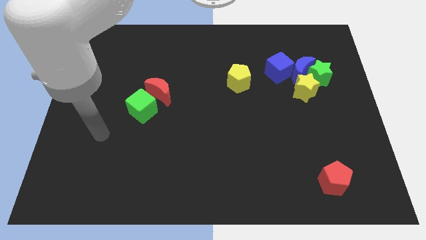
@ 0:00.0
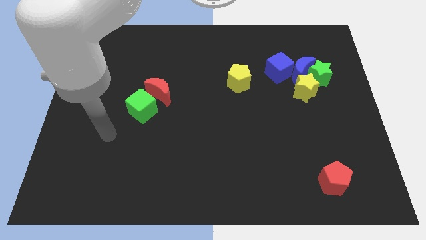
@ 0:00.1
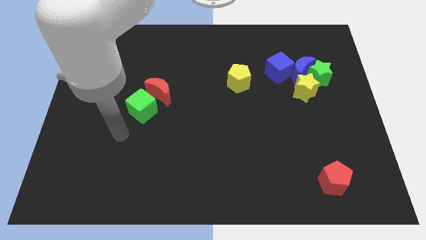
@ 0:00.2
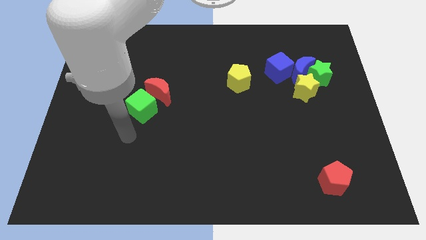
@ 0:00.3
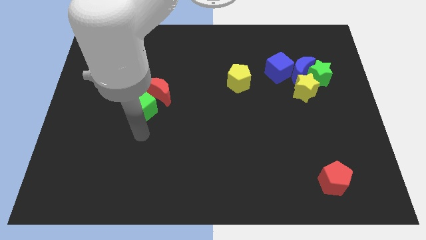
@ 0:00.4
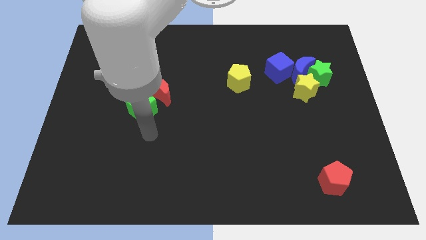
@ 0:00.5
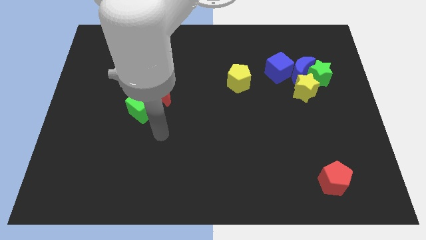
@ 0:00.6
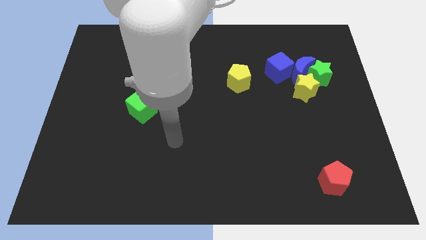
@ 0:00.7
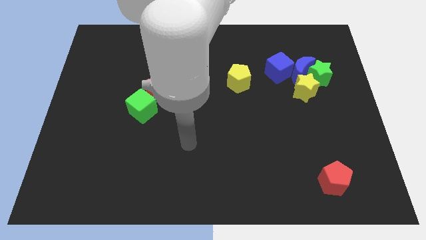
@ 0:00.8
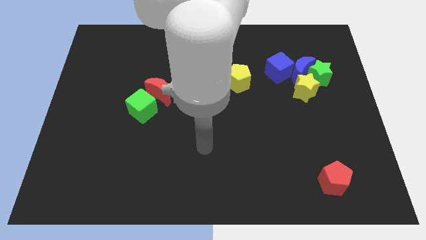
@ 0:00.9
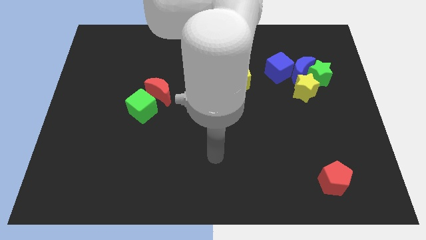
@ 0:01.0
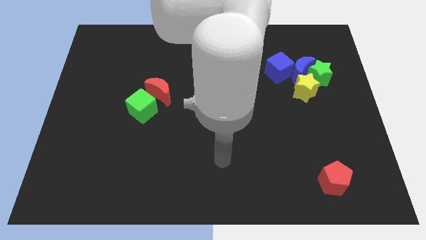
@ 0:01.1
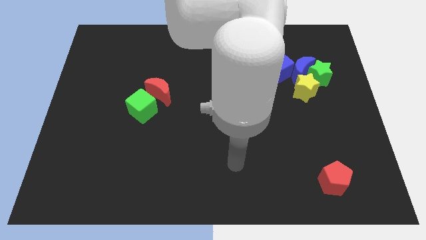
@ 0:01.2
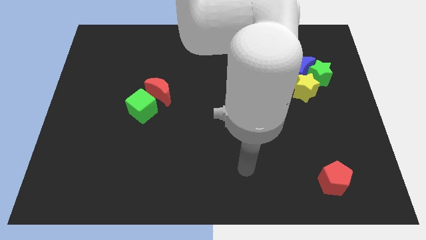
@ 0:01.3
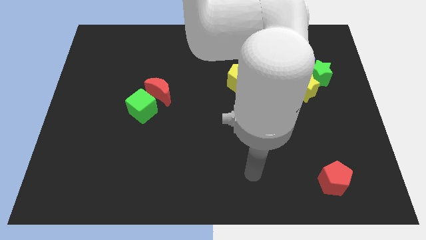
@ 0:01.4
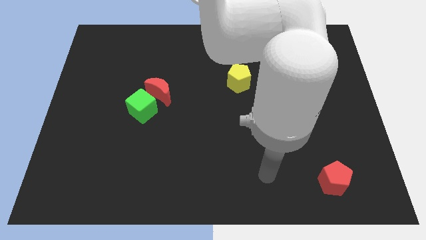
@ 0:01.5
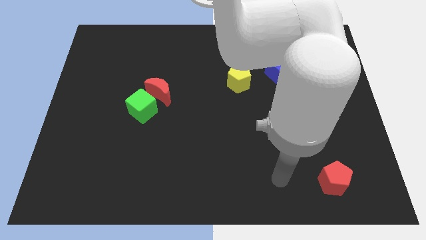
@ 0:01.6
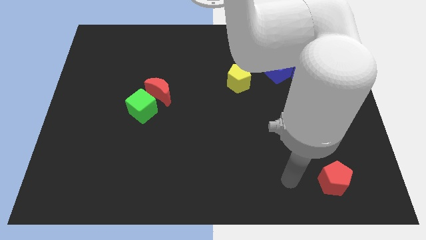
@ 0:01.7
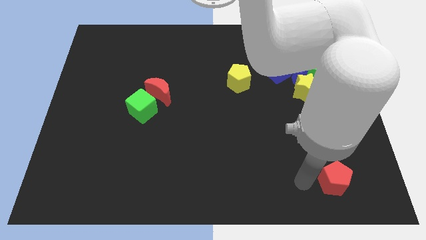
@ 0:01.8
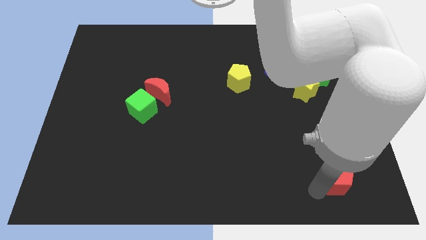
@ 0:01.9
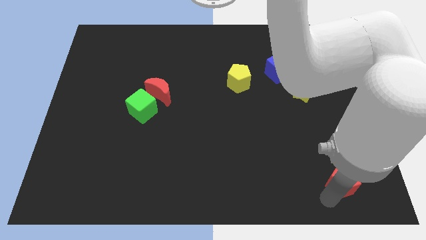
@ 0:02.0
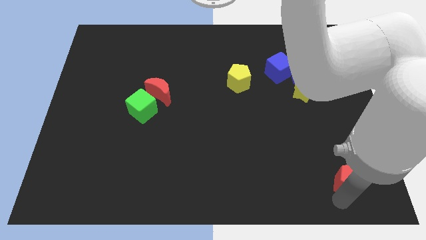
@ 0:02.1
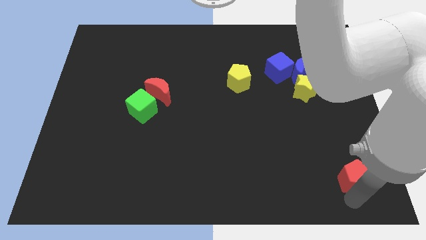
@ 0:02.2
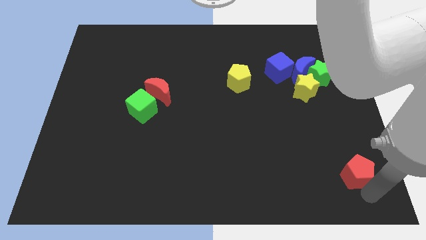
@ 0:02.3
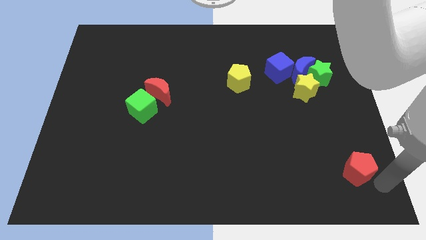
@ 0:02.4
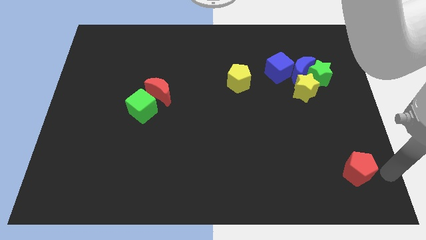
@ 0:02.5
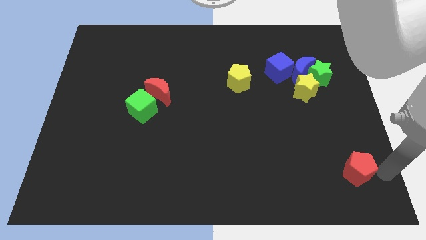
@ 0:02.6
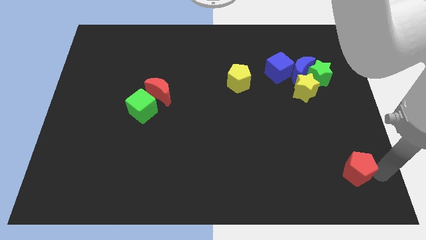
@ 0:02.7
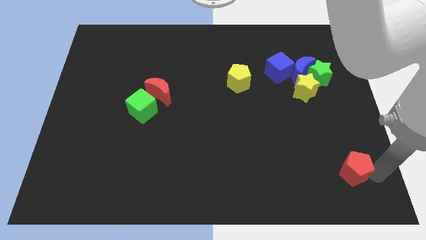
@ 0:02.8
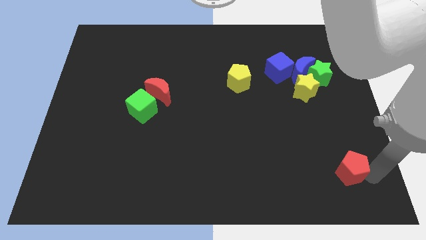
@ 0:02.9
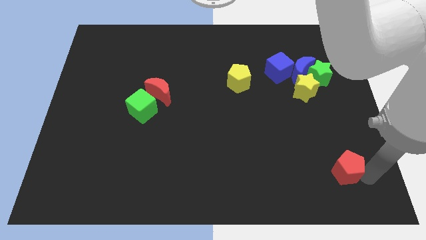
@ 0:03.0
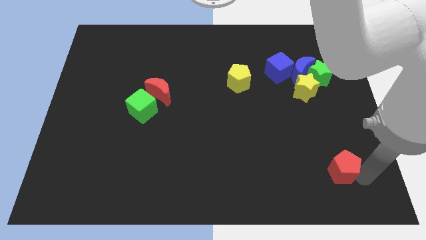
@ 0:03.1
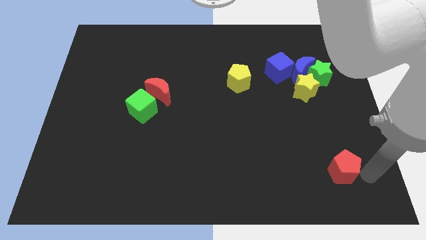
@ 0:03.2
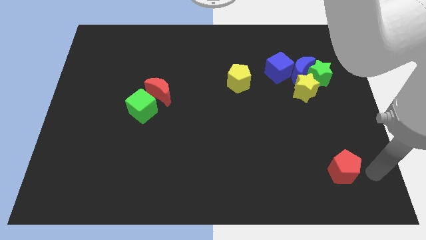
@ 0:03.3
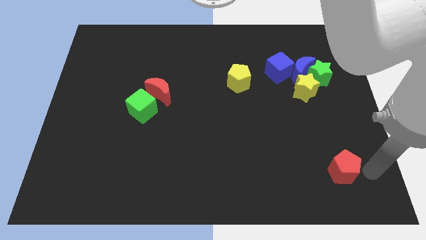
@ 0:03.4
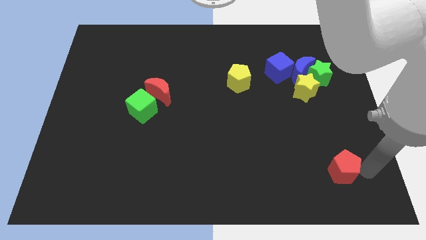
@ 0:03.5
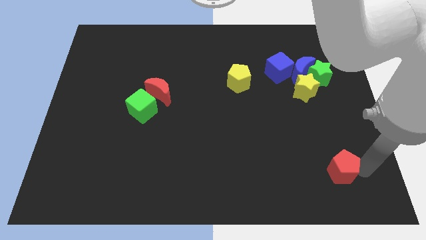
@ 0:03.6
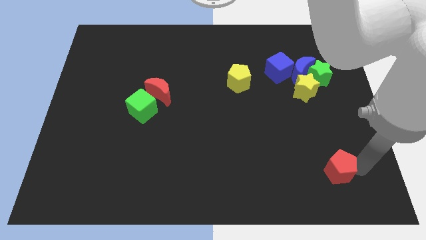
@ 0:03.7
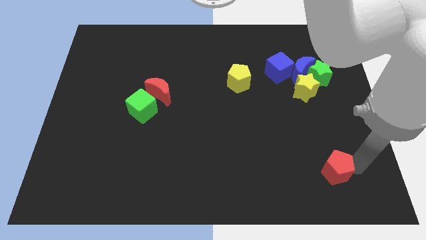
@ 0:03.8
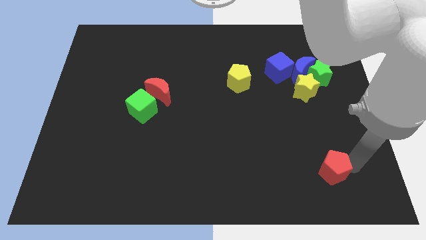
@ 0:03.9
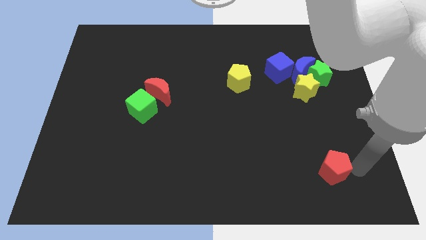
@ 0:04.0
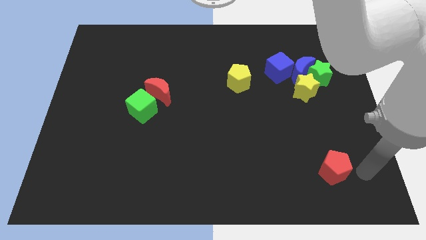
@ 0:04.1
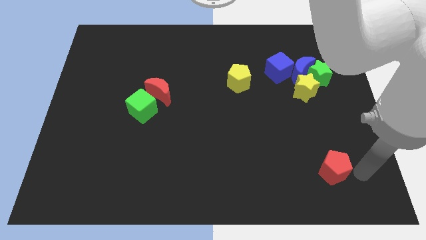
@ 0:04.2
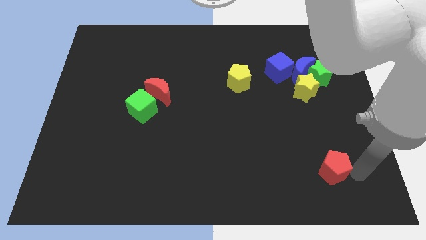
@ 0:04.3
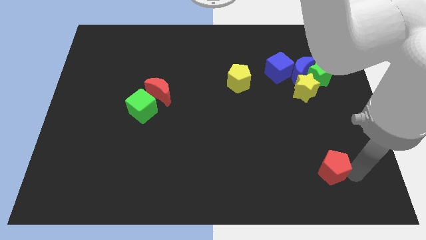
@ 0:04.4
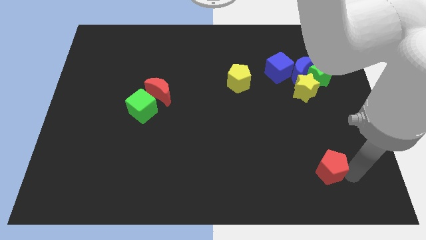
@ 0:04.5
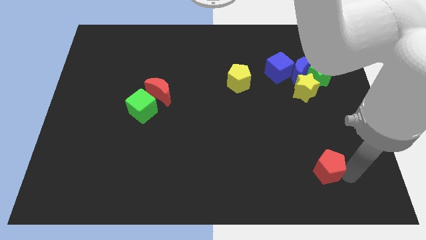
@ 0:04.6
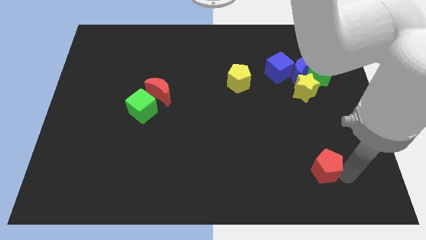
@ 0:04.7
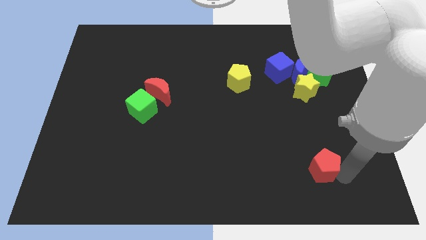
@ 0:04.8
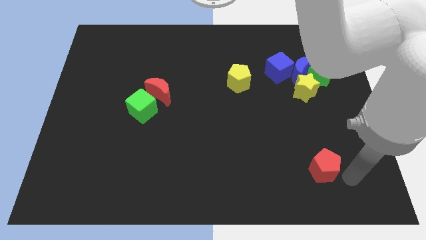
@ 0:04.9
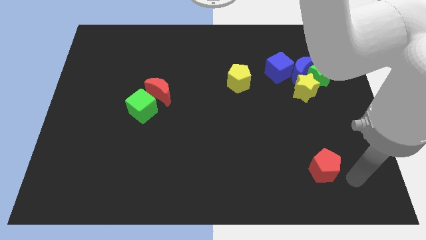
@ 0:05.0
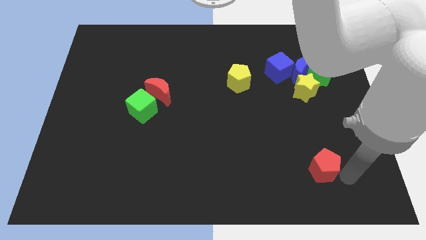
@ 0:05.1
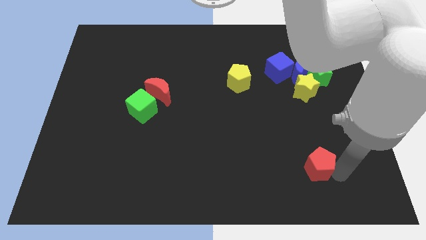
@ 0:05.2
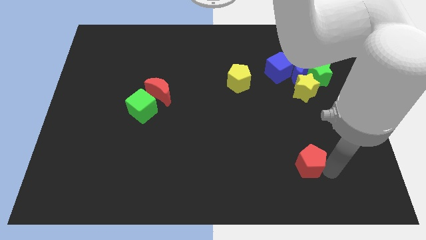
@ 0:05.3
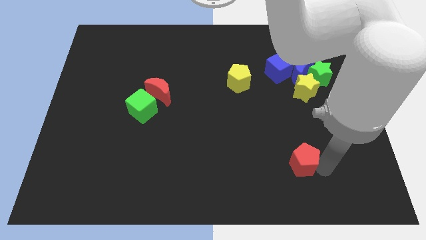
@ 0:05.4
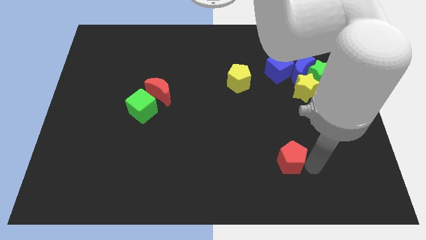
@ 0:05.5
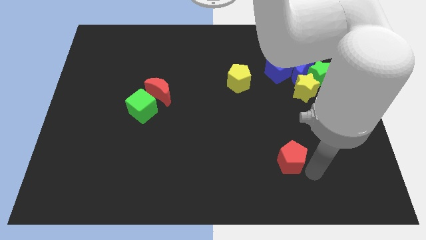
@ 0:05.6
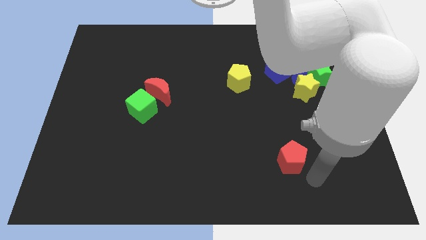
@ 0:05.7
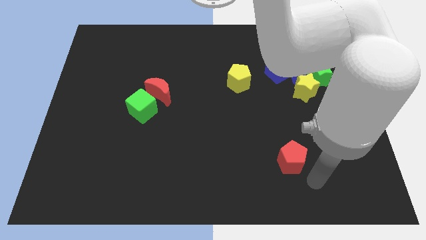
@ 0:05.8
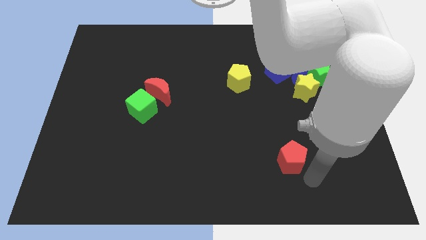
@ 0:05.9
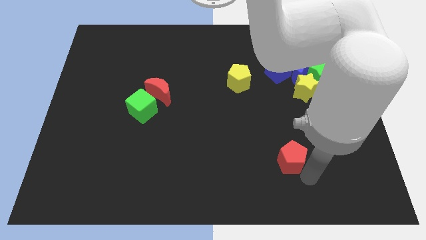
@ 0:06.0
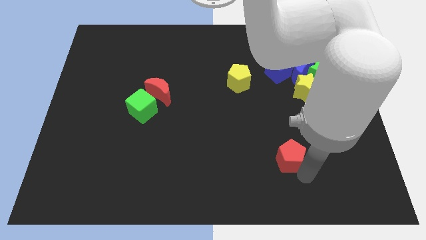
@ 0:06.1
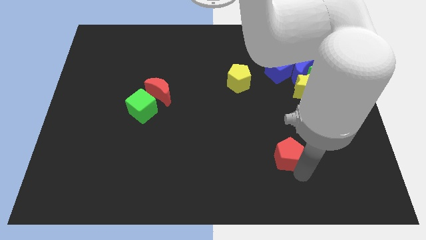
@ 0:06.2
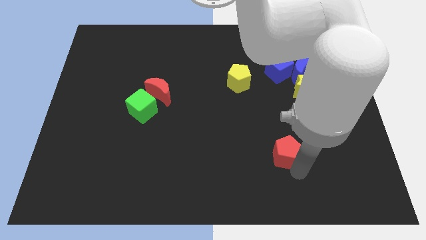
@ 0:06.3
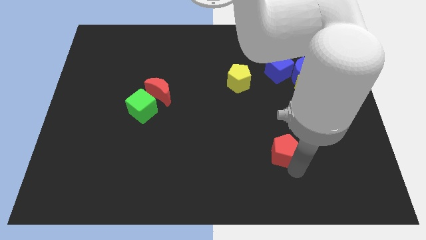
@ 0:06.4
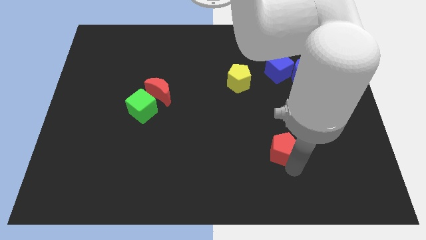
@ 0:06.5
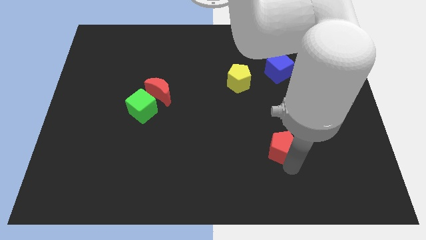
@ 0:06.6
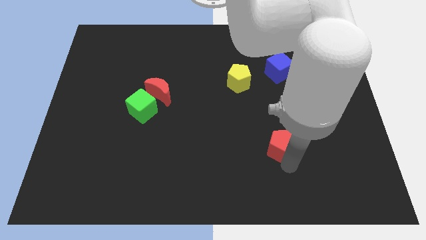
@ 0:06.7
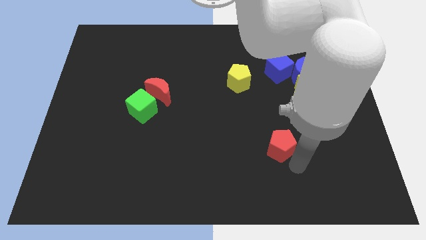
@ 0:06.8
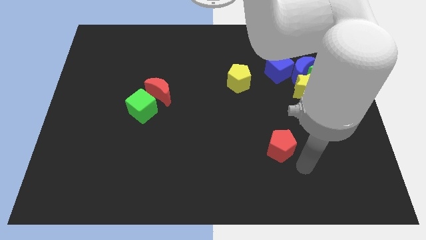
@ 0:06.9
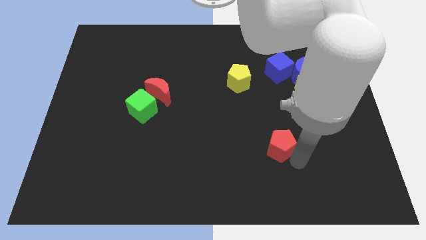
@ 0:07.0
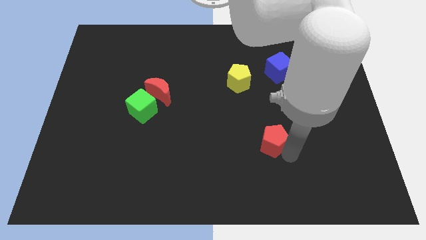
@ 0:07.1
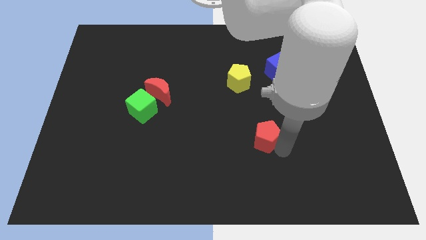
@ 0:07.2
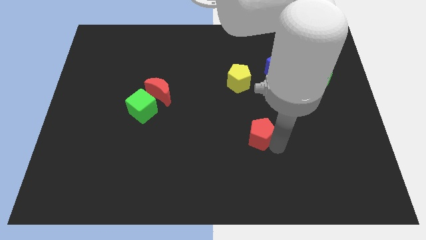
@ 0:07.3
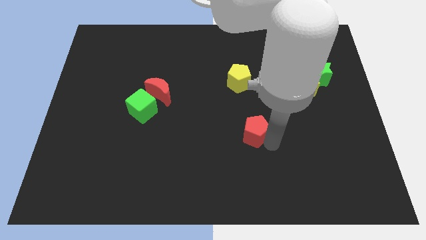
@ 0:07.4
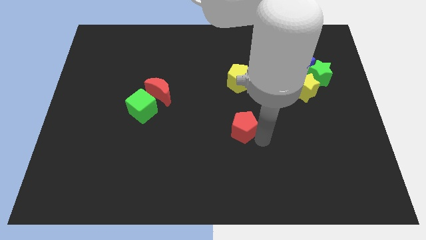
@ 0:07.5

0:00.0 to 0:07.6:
slide the red pentagon upwards and to the left

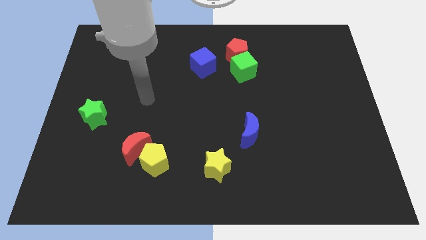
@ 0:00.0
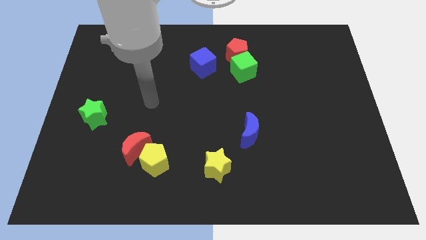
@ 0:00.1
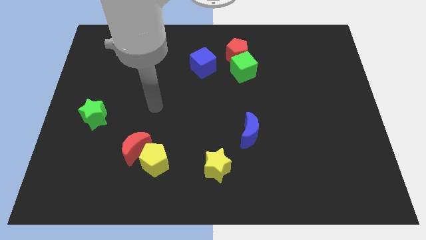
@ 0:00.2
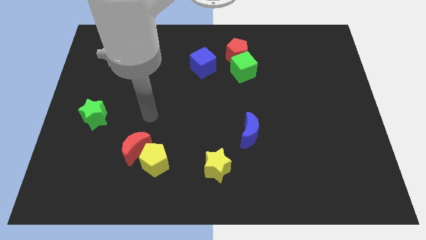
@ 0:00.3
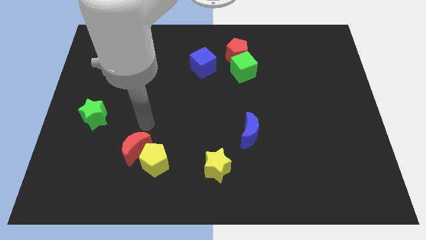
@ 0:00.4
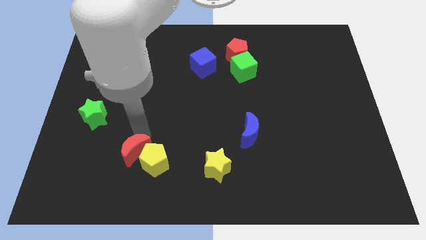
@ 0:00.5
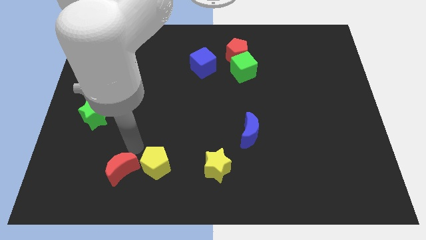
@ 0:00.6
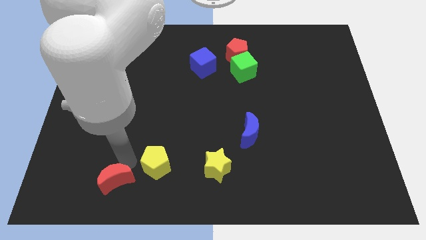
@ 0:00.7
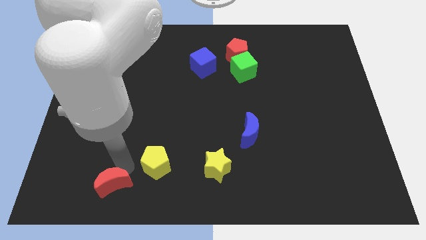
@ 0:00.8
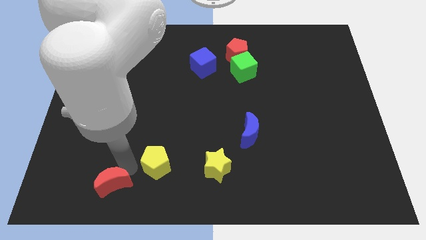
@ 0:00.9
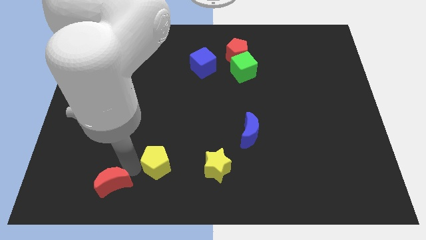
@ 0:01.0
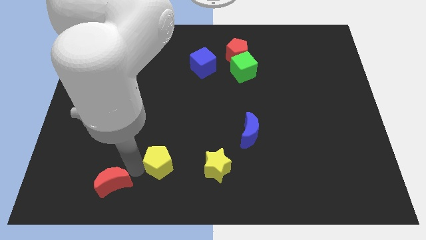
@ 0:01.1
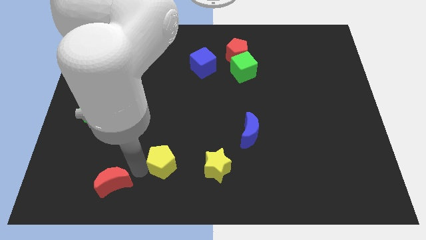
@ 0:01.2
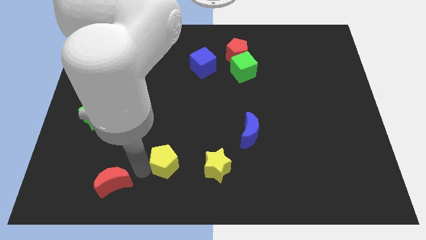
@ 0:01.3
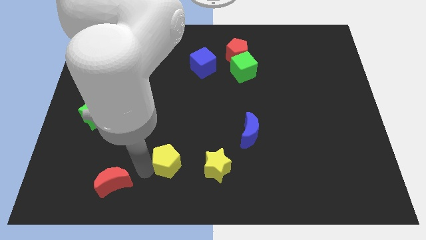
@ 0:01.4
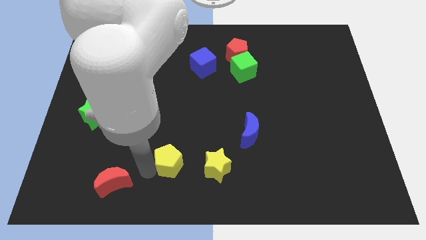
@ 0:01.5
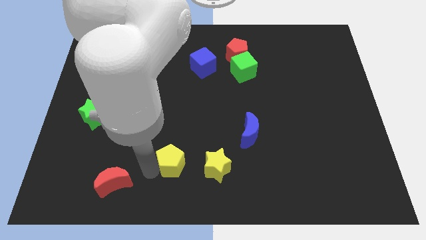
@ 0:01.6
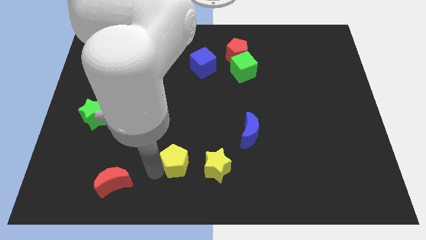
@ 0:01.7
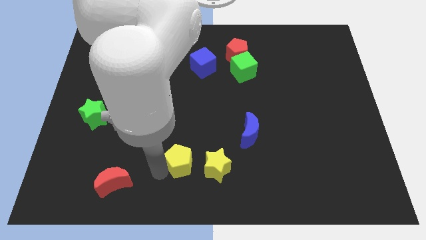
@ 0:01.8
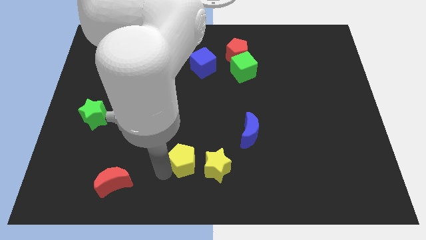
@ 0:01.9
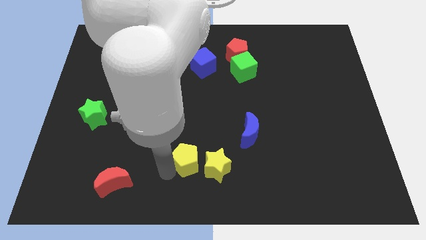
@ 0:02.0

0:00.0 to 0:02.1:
slide the yellow pentagon right a bit
